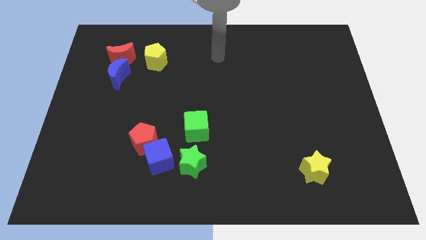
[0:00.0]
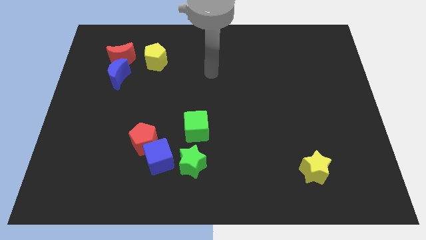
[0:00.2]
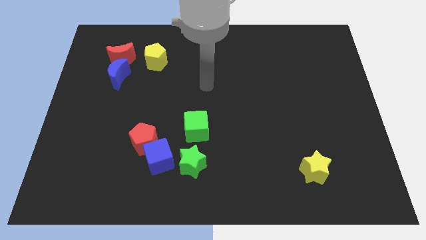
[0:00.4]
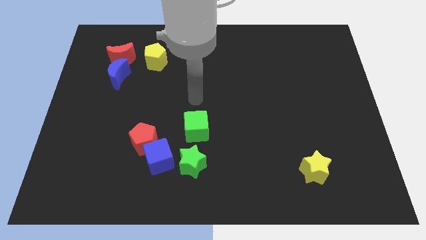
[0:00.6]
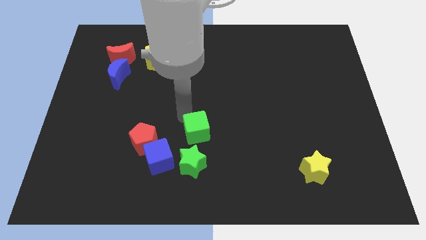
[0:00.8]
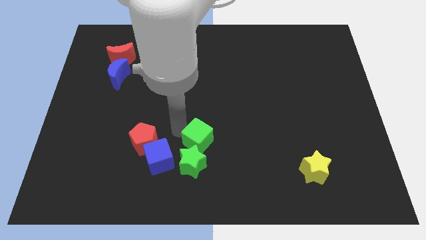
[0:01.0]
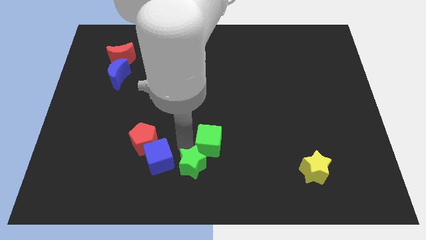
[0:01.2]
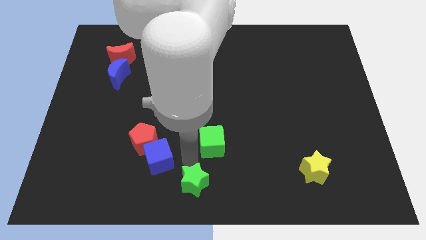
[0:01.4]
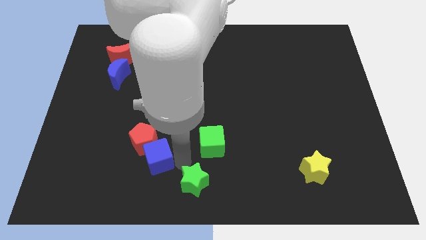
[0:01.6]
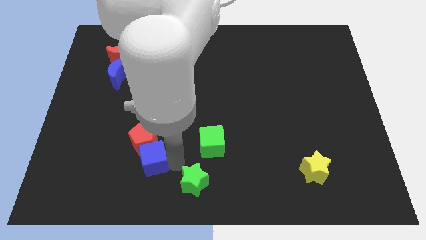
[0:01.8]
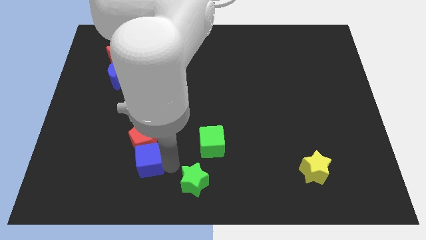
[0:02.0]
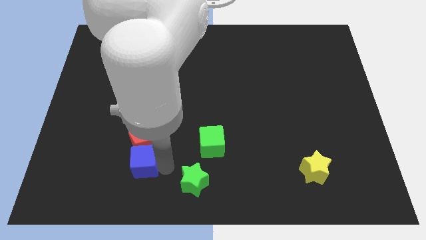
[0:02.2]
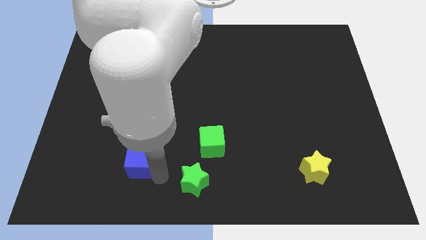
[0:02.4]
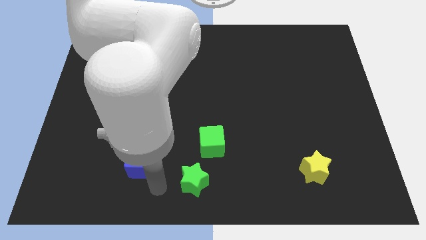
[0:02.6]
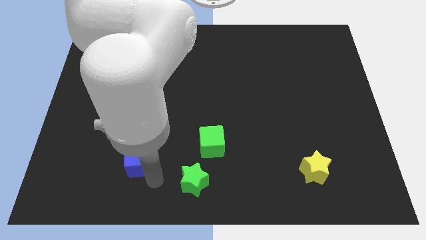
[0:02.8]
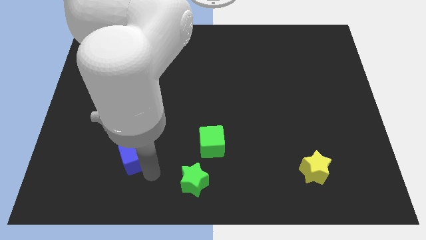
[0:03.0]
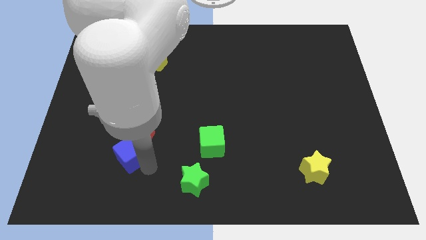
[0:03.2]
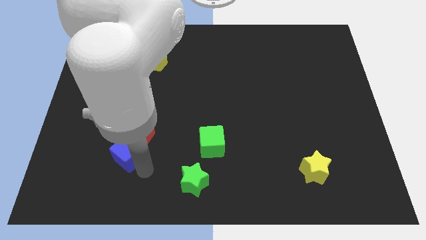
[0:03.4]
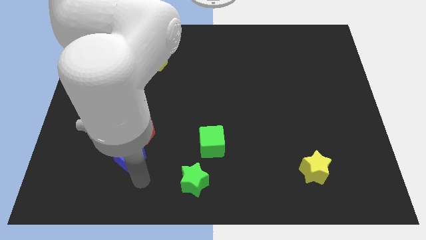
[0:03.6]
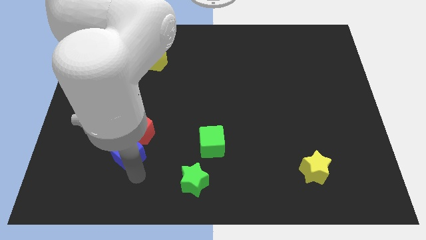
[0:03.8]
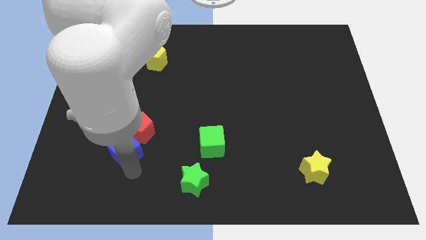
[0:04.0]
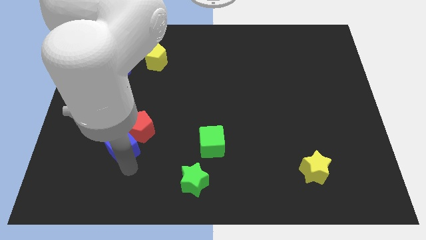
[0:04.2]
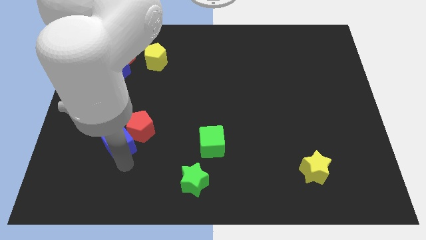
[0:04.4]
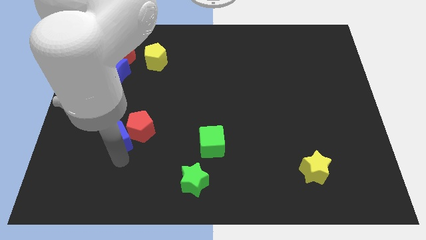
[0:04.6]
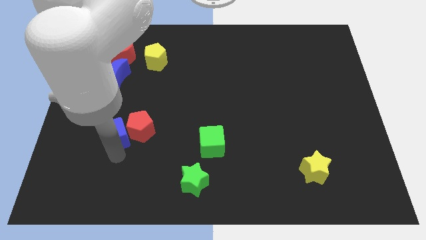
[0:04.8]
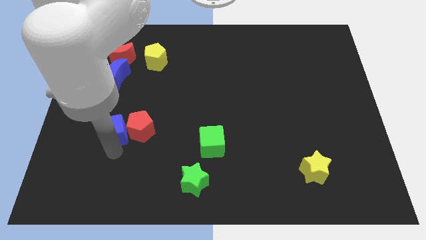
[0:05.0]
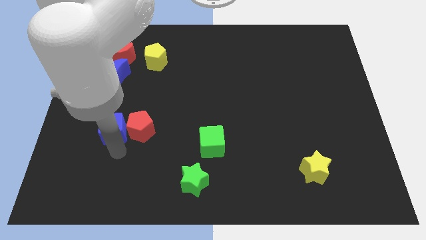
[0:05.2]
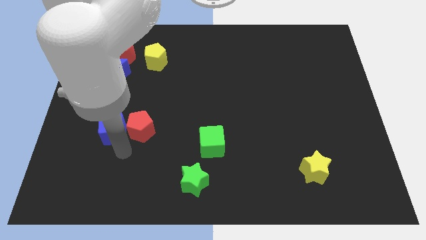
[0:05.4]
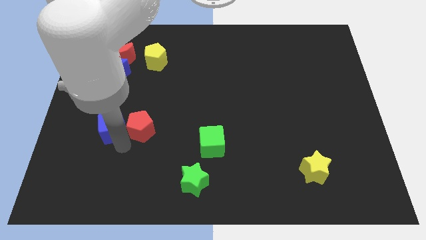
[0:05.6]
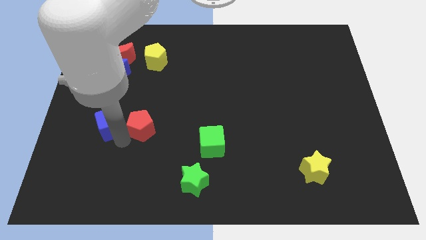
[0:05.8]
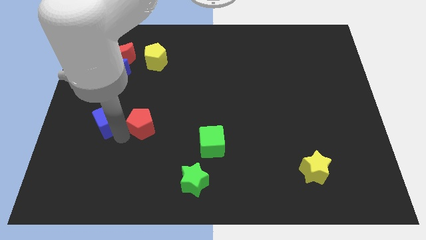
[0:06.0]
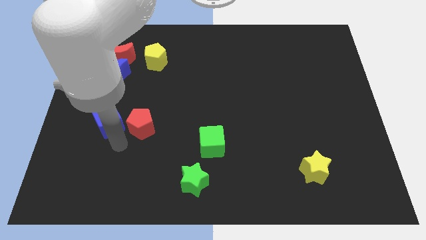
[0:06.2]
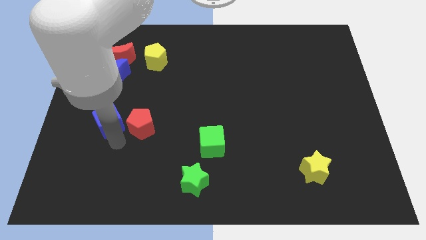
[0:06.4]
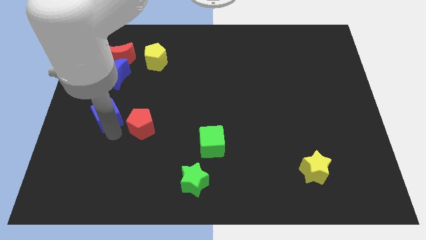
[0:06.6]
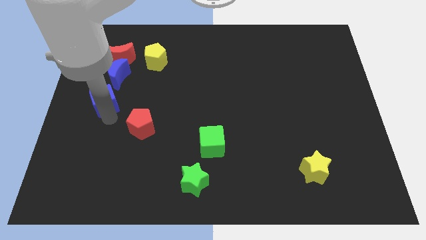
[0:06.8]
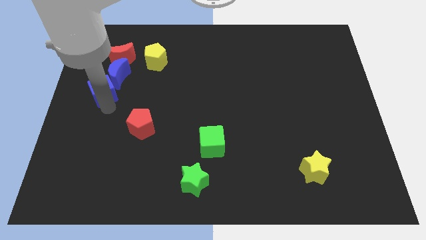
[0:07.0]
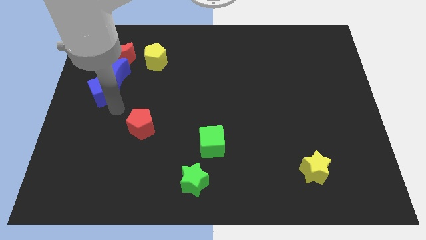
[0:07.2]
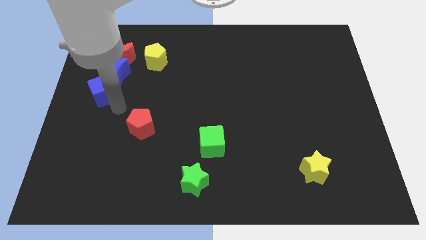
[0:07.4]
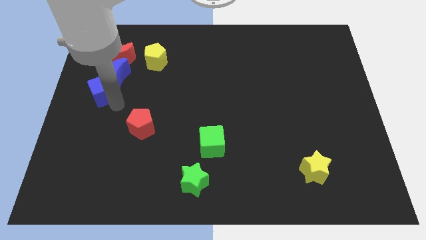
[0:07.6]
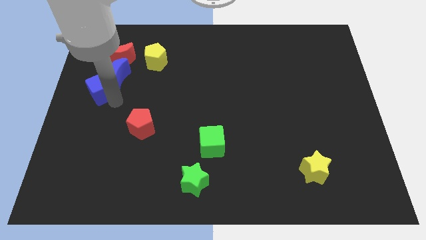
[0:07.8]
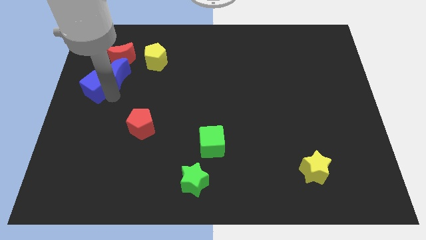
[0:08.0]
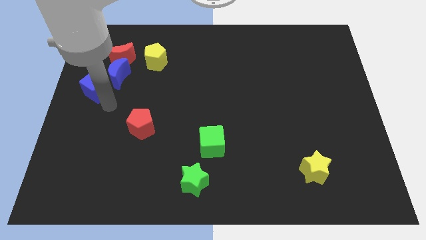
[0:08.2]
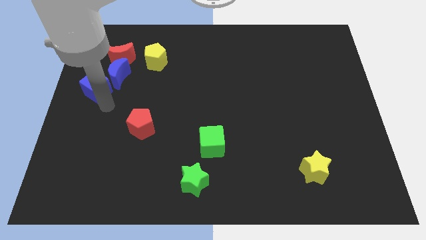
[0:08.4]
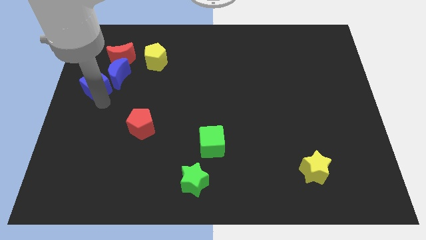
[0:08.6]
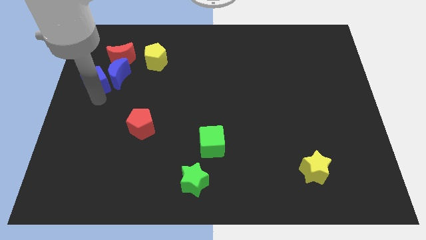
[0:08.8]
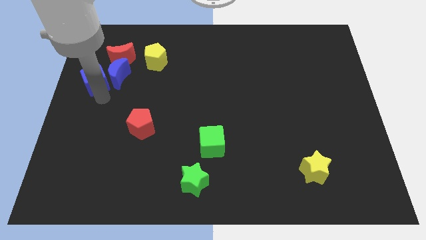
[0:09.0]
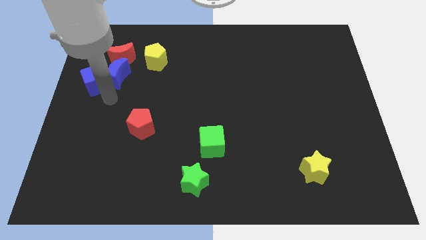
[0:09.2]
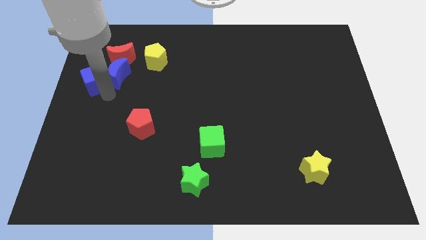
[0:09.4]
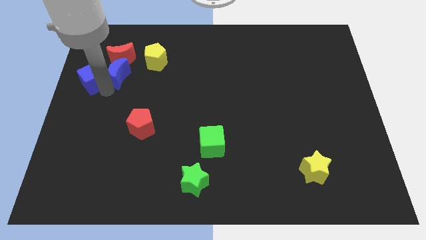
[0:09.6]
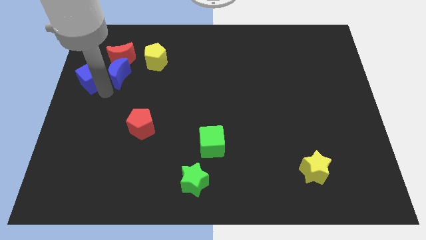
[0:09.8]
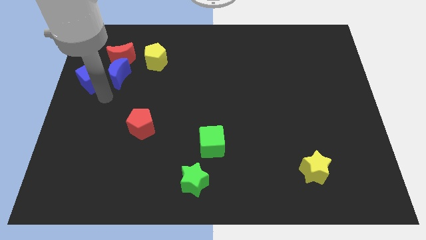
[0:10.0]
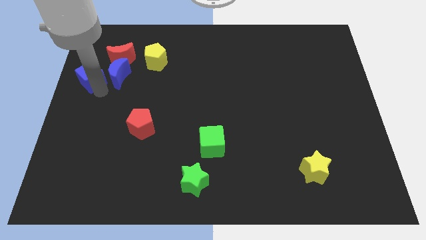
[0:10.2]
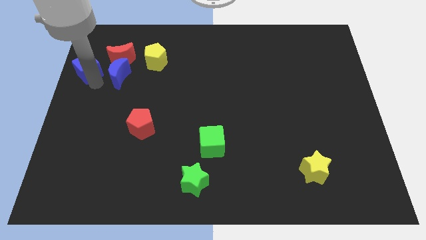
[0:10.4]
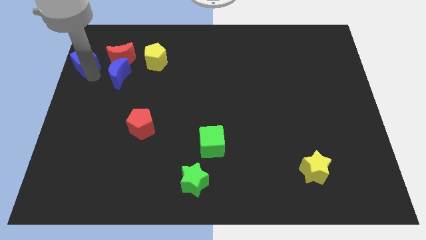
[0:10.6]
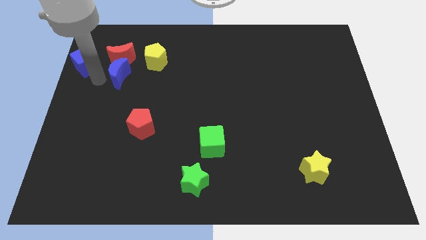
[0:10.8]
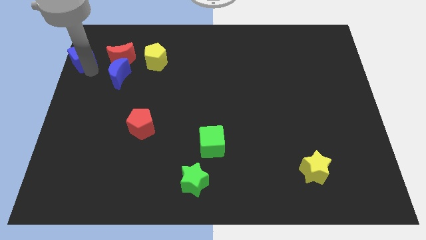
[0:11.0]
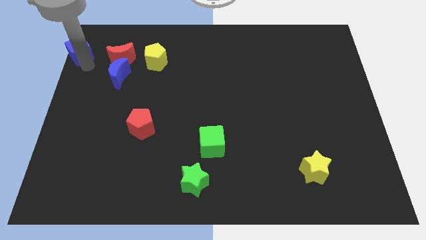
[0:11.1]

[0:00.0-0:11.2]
put the blue cube to the upper left corner

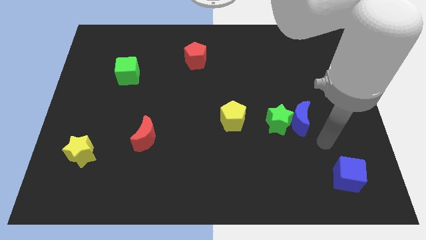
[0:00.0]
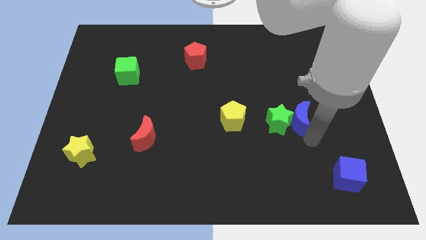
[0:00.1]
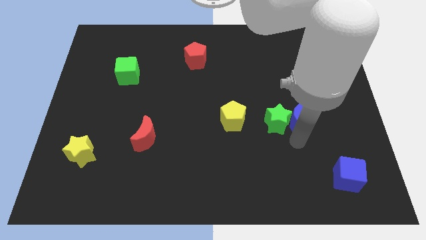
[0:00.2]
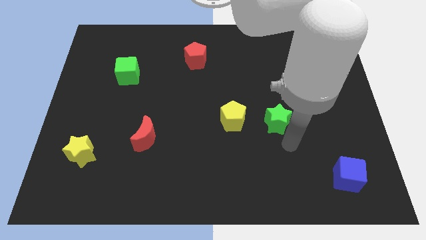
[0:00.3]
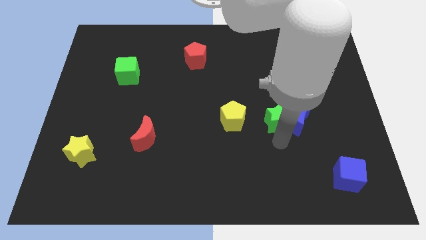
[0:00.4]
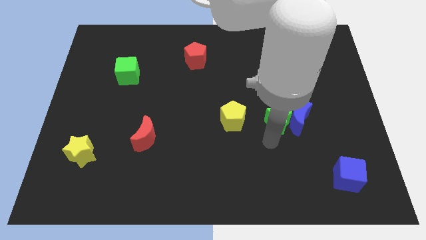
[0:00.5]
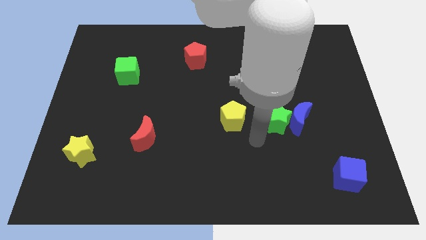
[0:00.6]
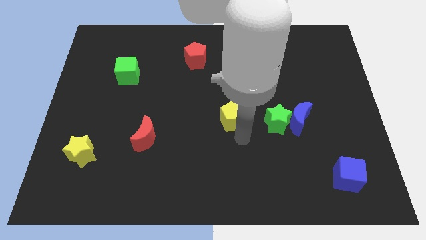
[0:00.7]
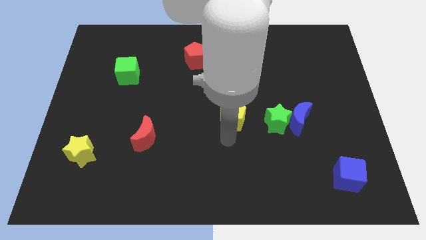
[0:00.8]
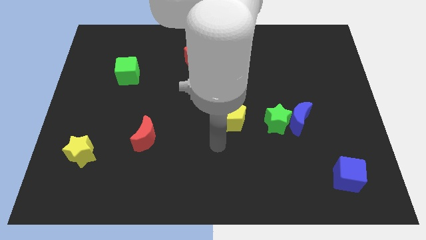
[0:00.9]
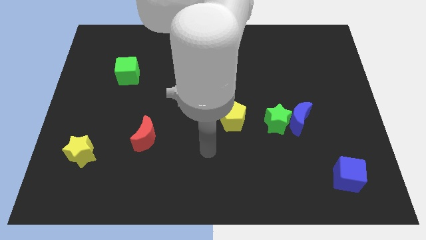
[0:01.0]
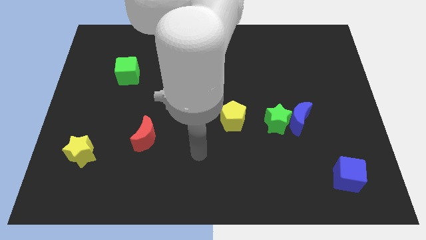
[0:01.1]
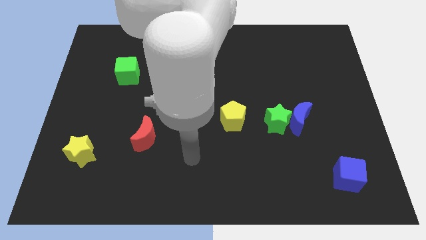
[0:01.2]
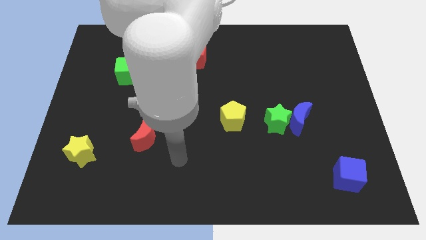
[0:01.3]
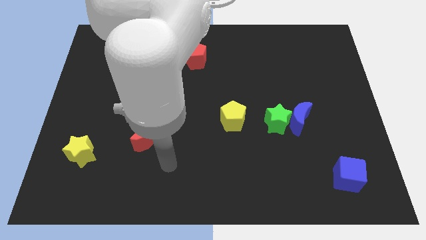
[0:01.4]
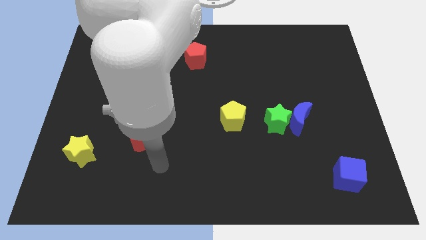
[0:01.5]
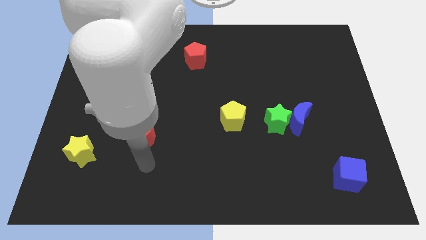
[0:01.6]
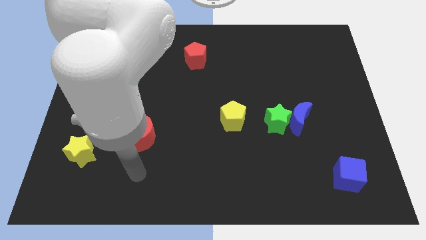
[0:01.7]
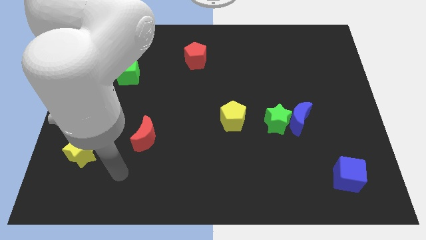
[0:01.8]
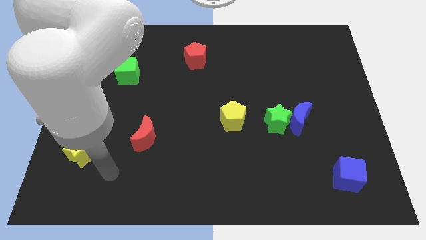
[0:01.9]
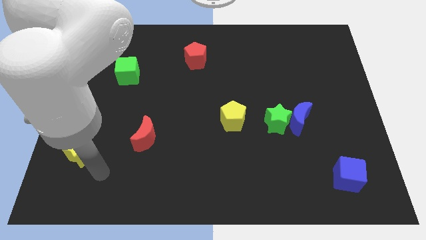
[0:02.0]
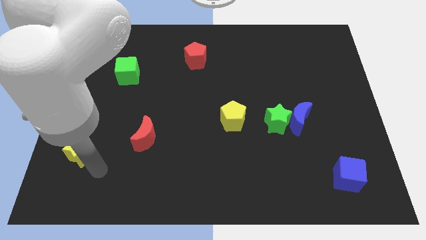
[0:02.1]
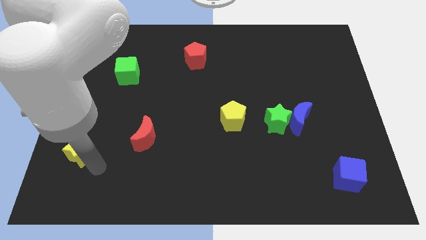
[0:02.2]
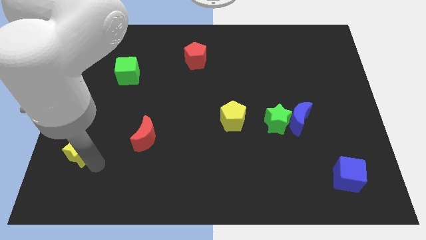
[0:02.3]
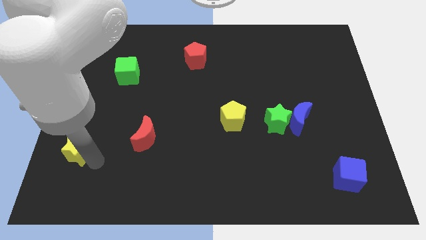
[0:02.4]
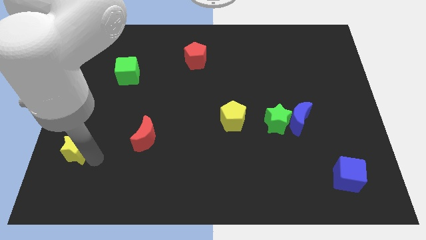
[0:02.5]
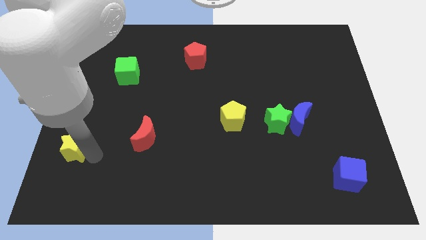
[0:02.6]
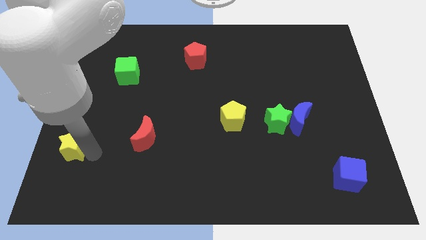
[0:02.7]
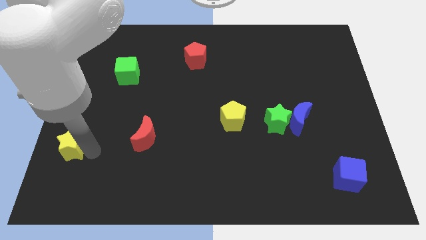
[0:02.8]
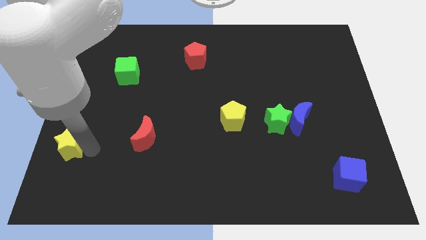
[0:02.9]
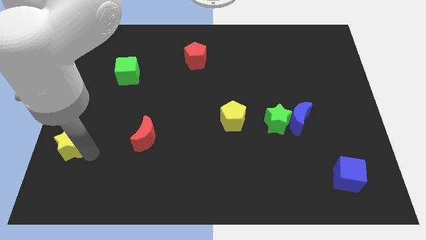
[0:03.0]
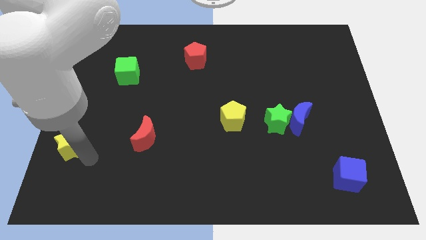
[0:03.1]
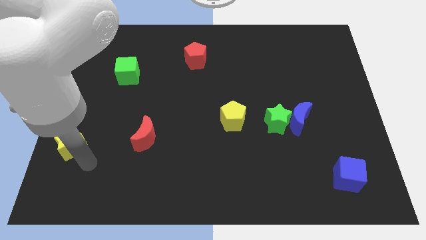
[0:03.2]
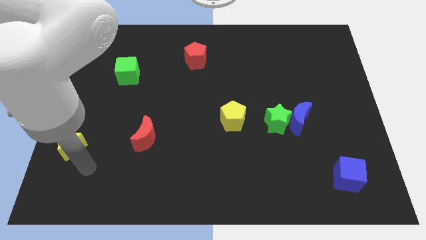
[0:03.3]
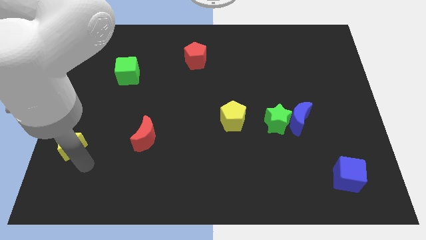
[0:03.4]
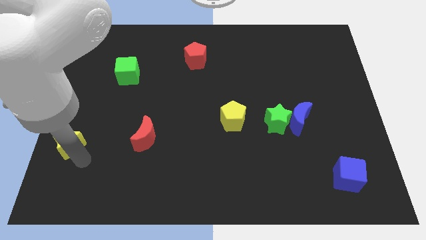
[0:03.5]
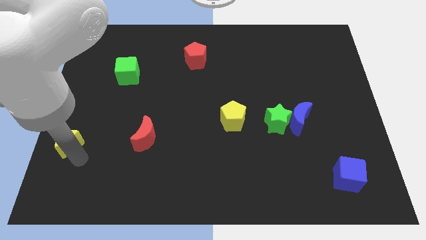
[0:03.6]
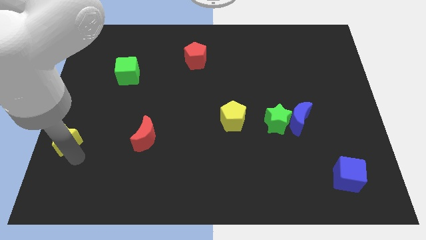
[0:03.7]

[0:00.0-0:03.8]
slide the yellow star to the left side of the board
